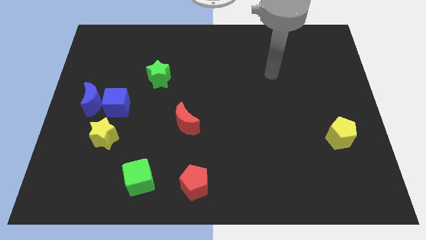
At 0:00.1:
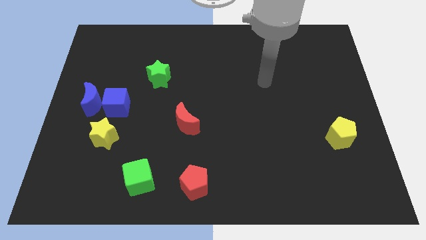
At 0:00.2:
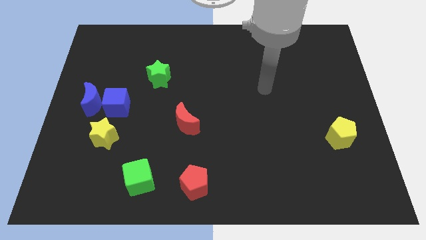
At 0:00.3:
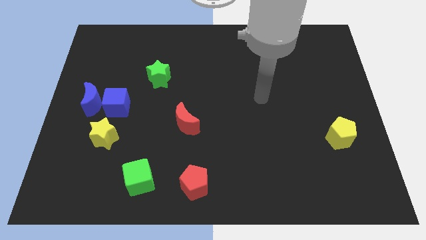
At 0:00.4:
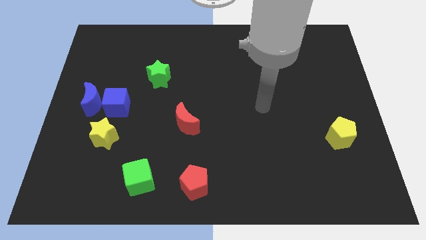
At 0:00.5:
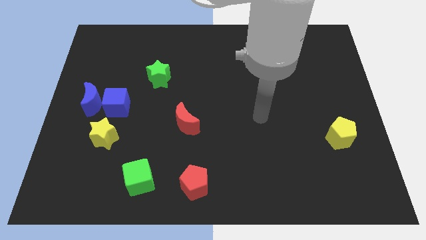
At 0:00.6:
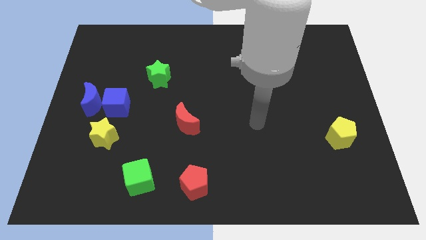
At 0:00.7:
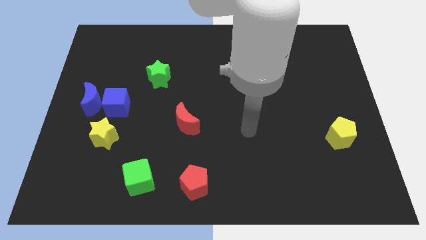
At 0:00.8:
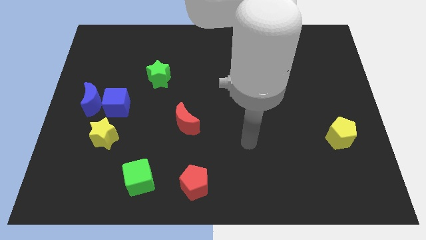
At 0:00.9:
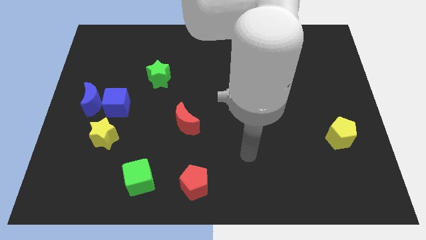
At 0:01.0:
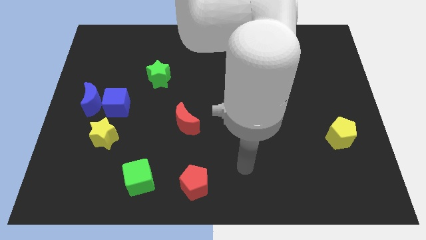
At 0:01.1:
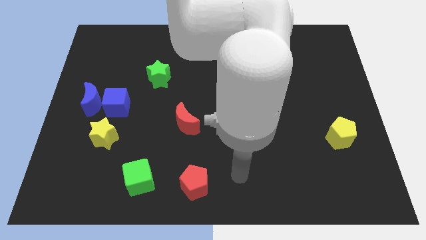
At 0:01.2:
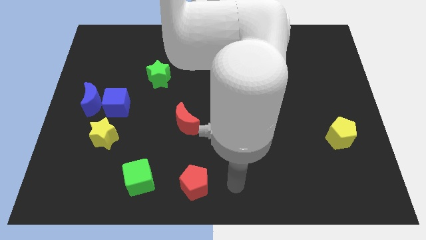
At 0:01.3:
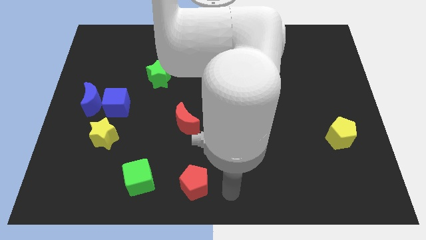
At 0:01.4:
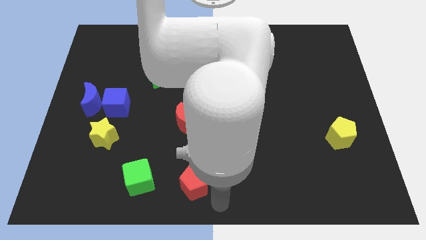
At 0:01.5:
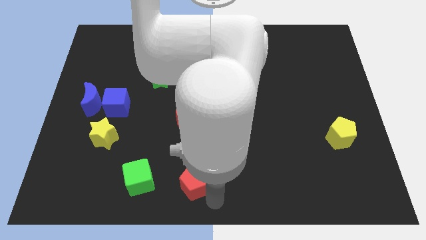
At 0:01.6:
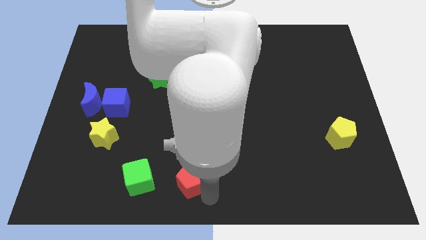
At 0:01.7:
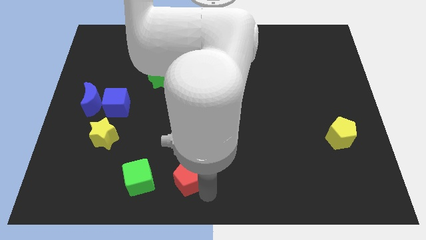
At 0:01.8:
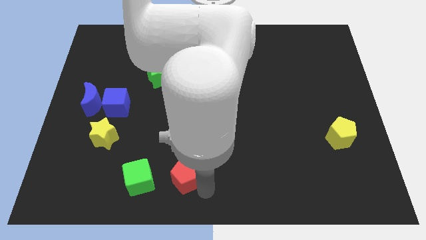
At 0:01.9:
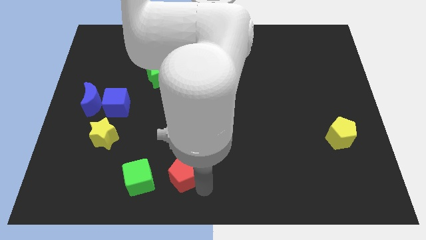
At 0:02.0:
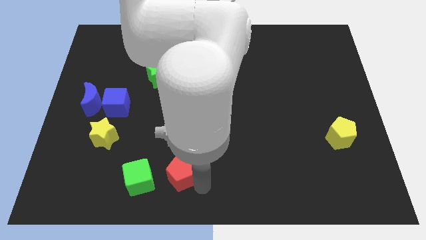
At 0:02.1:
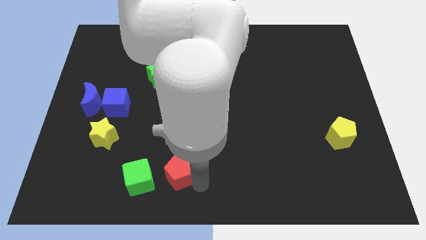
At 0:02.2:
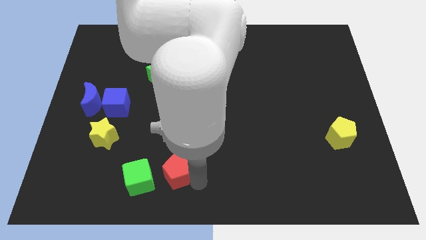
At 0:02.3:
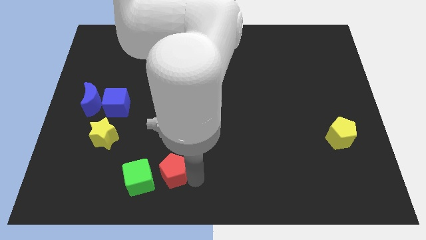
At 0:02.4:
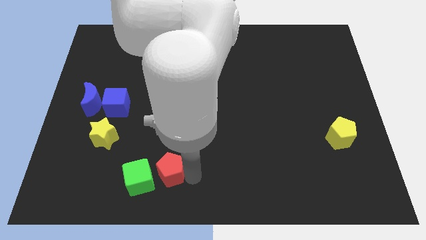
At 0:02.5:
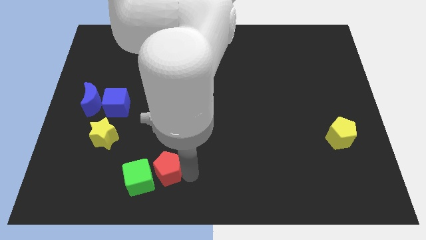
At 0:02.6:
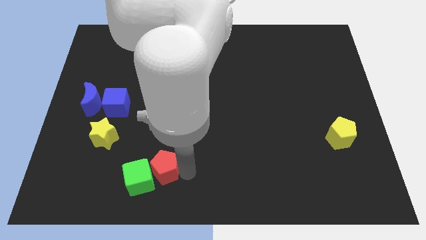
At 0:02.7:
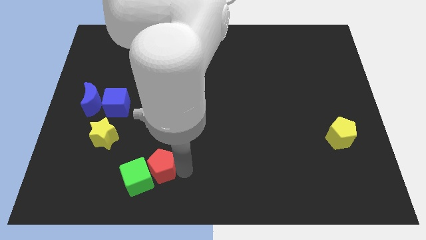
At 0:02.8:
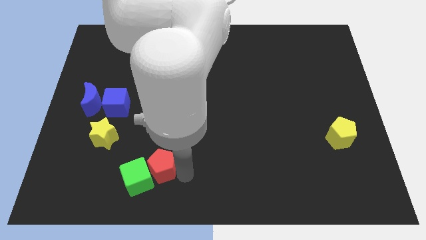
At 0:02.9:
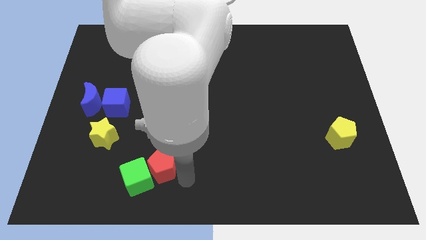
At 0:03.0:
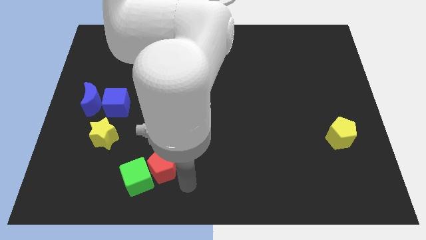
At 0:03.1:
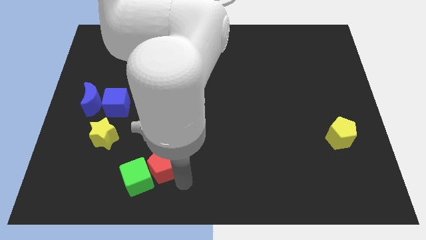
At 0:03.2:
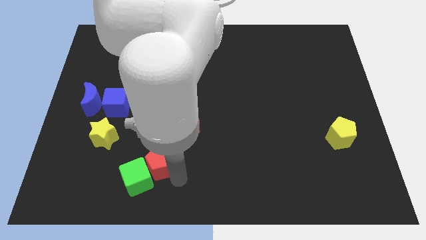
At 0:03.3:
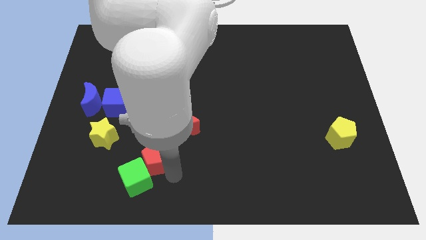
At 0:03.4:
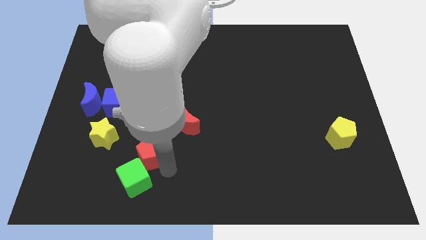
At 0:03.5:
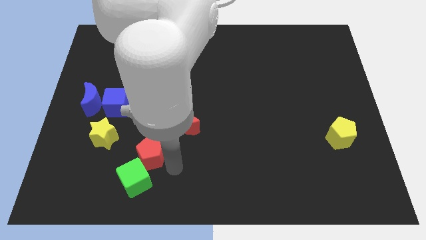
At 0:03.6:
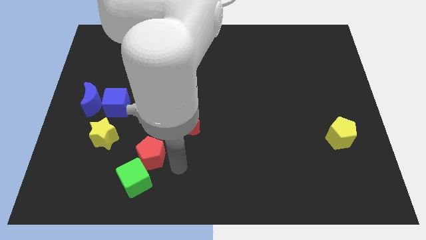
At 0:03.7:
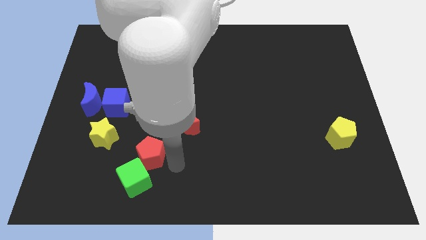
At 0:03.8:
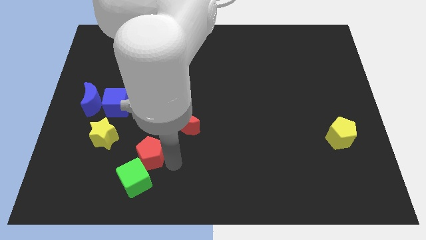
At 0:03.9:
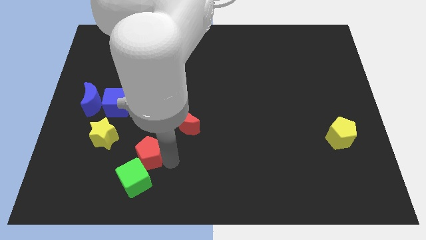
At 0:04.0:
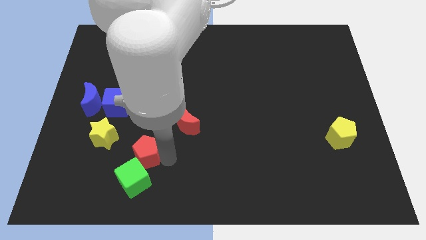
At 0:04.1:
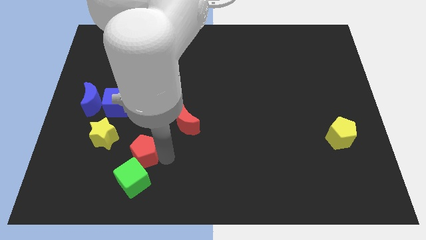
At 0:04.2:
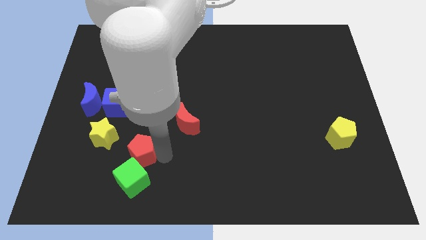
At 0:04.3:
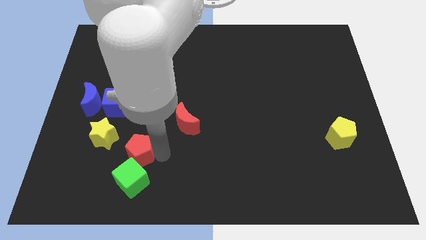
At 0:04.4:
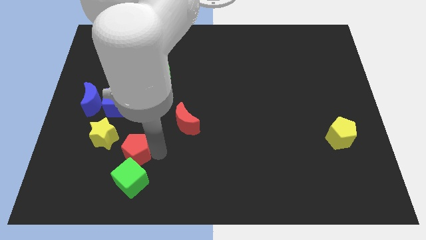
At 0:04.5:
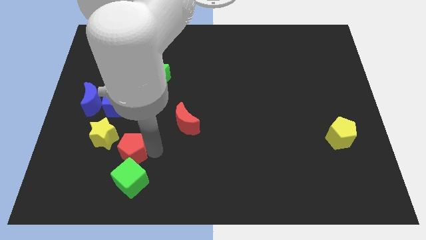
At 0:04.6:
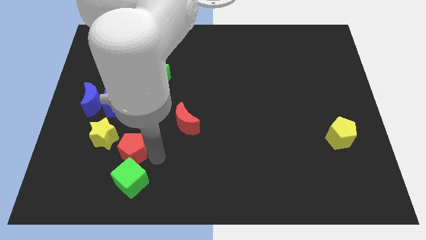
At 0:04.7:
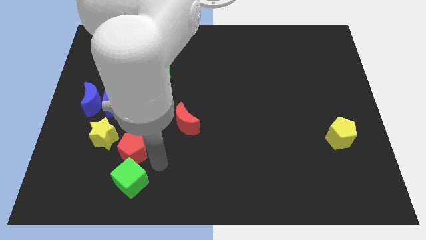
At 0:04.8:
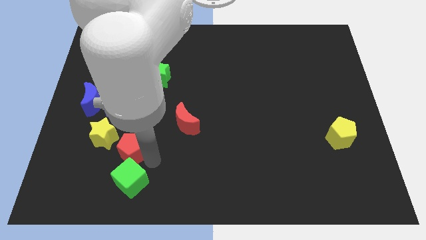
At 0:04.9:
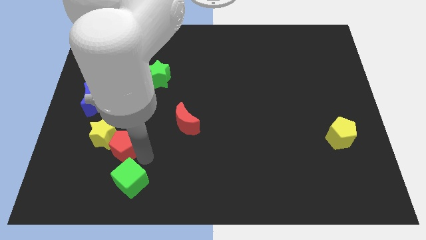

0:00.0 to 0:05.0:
slide the red pentagon close to the yellow star

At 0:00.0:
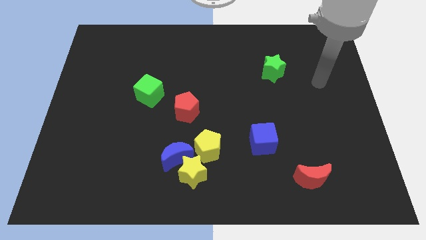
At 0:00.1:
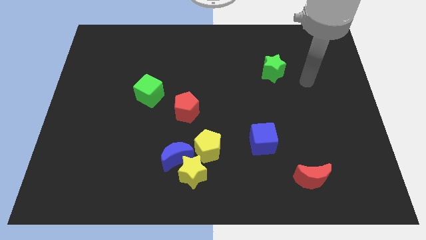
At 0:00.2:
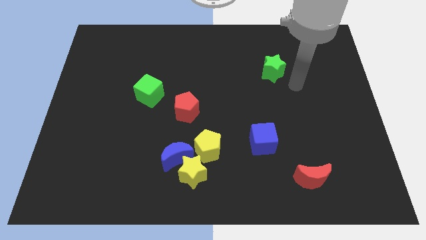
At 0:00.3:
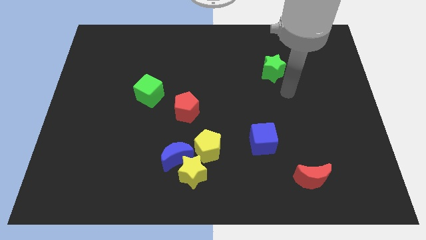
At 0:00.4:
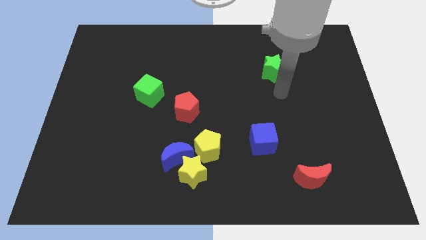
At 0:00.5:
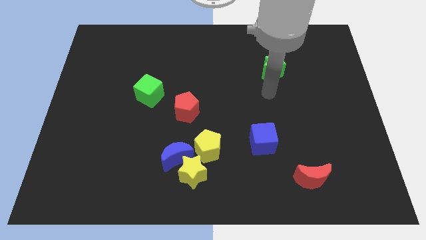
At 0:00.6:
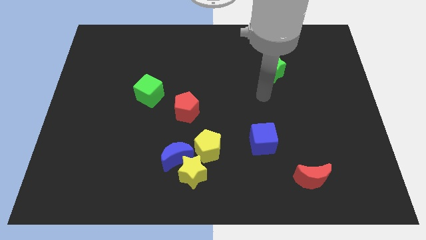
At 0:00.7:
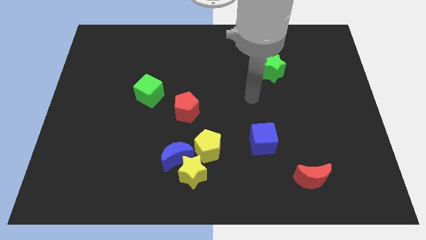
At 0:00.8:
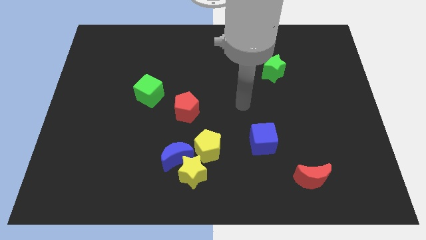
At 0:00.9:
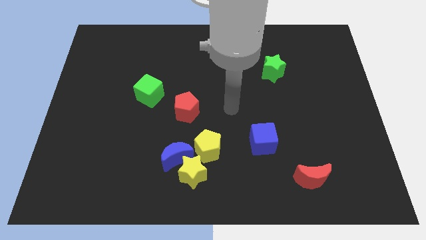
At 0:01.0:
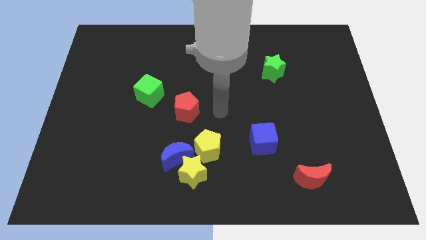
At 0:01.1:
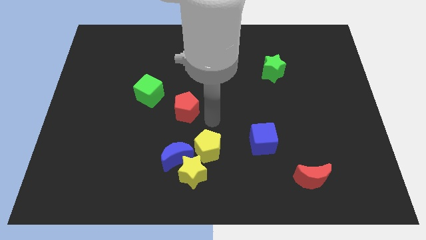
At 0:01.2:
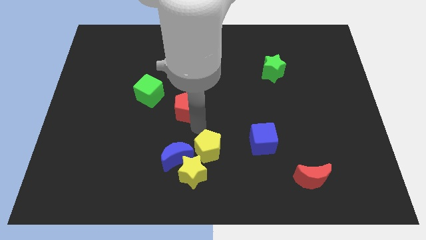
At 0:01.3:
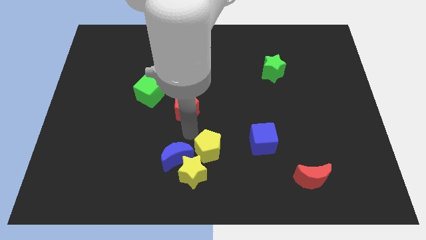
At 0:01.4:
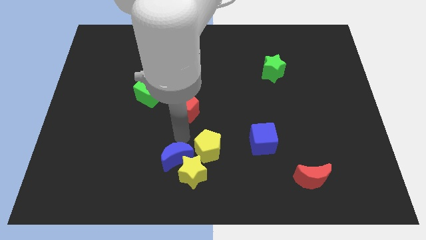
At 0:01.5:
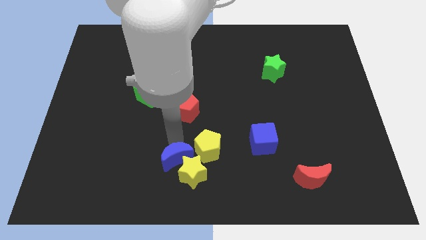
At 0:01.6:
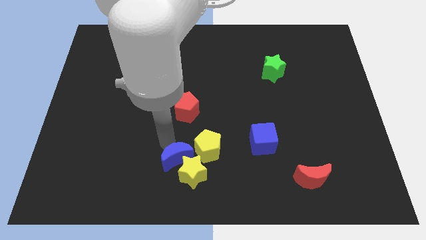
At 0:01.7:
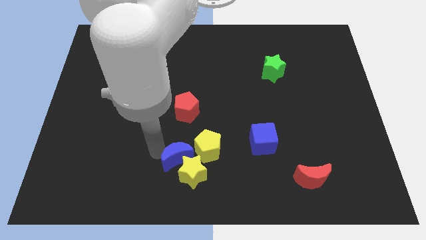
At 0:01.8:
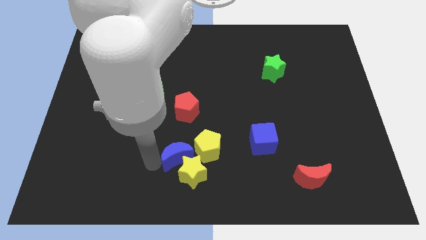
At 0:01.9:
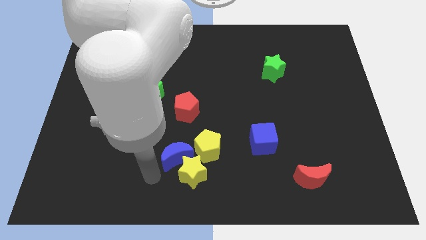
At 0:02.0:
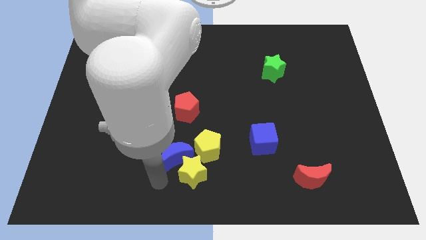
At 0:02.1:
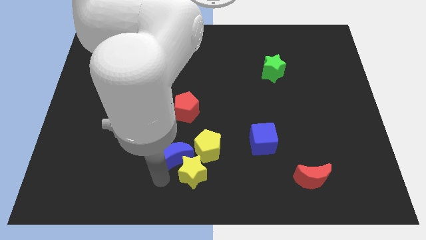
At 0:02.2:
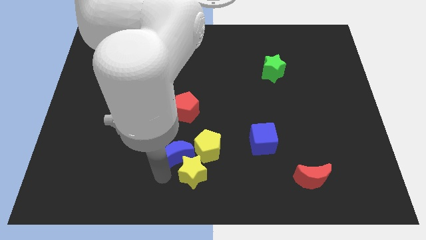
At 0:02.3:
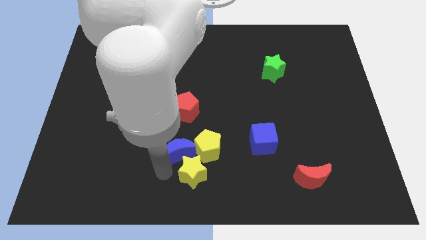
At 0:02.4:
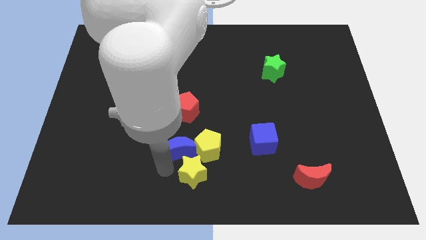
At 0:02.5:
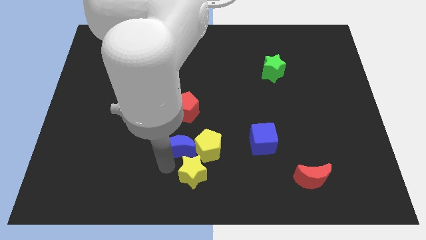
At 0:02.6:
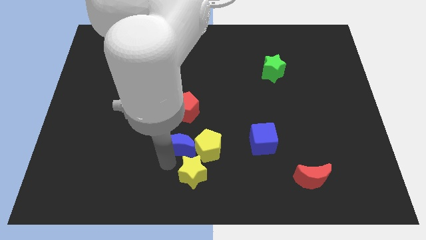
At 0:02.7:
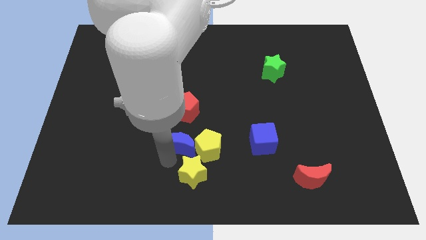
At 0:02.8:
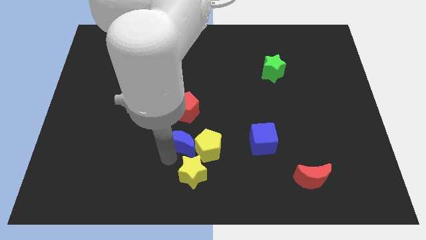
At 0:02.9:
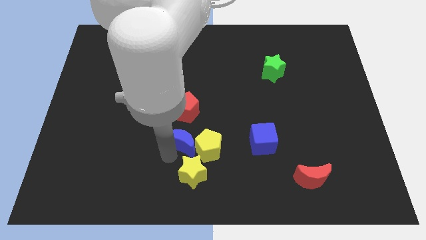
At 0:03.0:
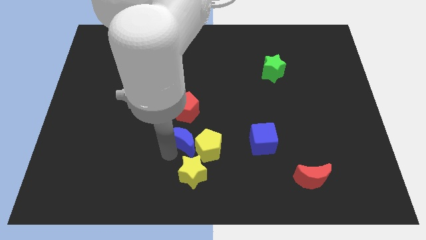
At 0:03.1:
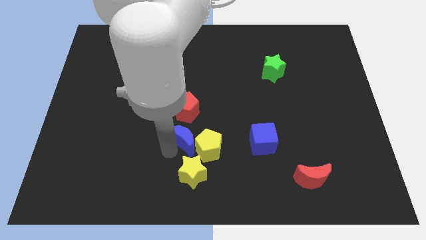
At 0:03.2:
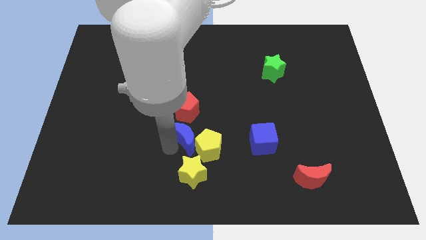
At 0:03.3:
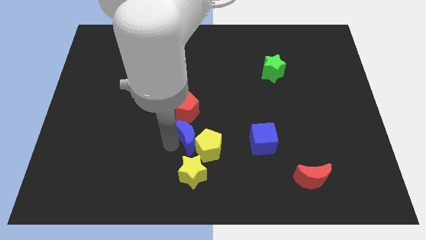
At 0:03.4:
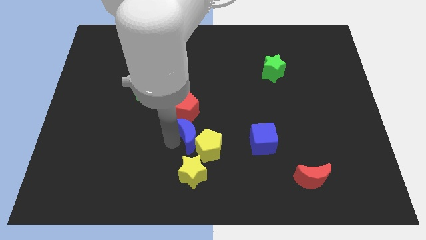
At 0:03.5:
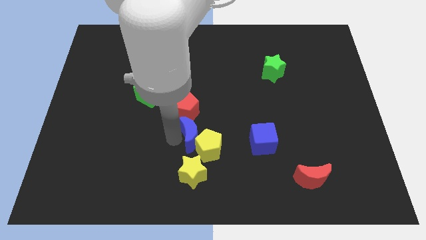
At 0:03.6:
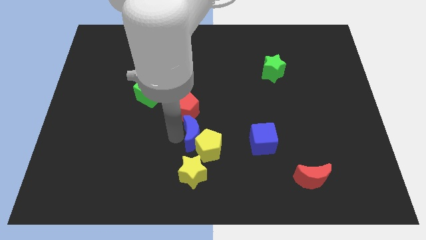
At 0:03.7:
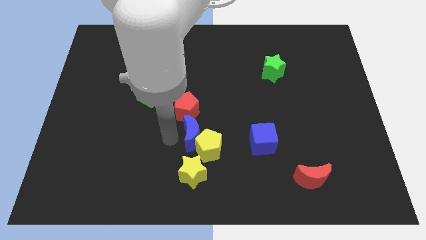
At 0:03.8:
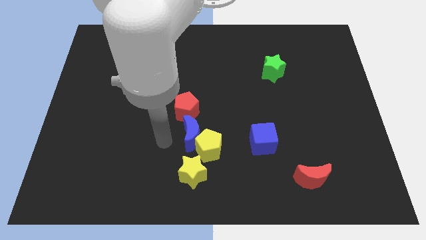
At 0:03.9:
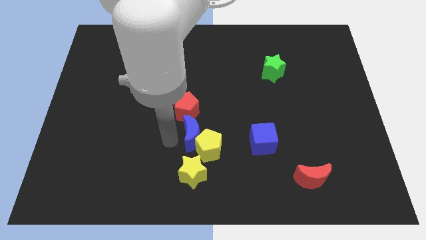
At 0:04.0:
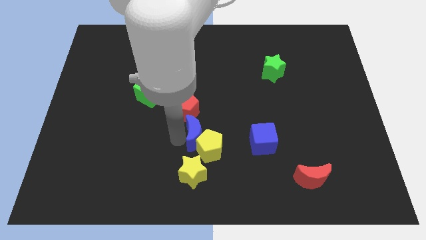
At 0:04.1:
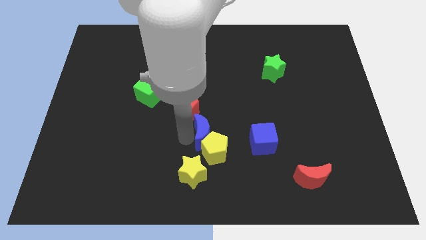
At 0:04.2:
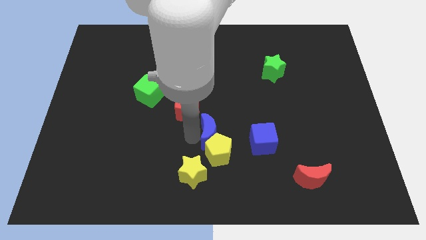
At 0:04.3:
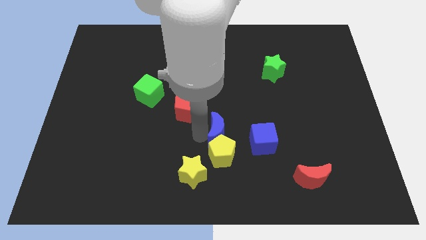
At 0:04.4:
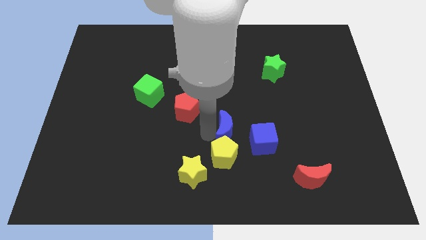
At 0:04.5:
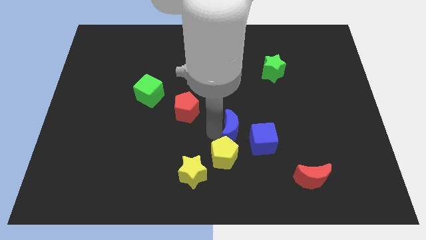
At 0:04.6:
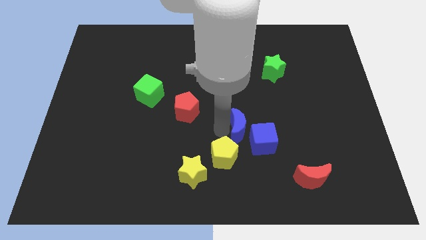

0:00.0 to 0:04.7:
put the blue moon towards the blue cube
